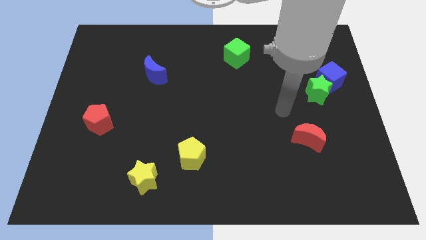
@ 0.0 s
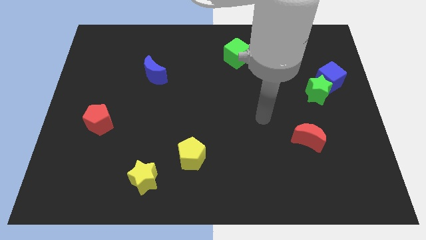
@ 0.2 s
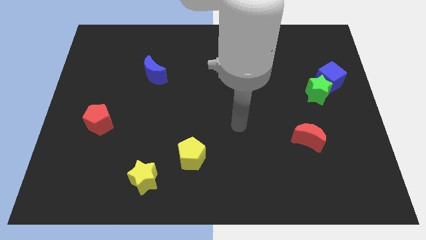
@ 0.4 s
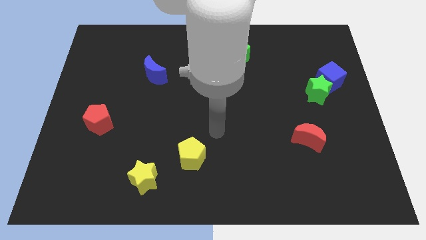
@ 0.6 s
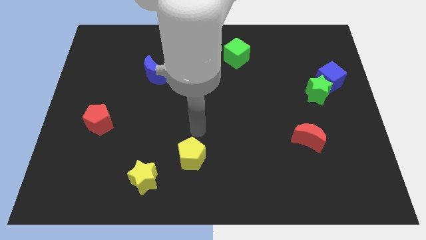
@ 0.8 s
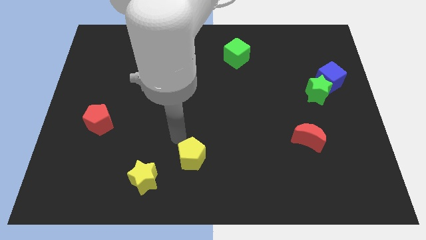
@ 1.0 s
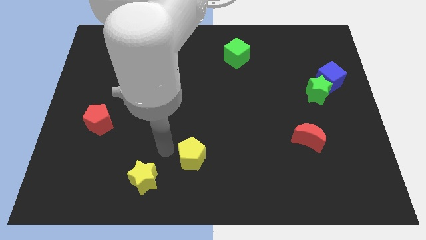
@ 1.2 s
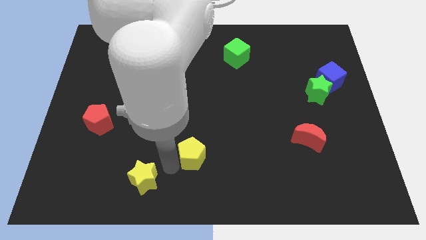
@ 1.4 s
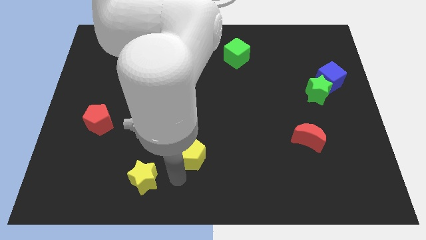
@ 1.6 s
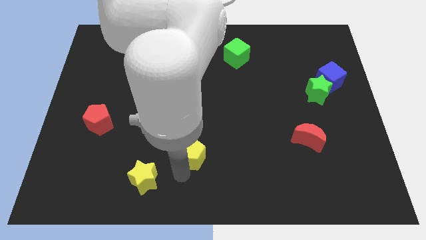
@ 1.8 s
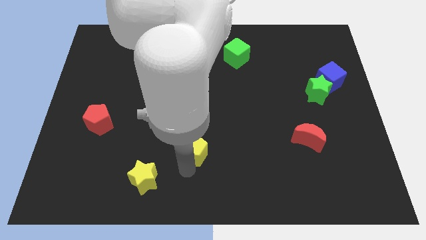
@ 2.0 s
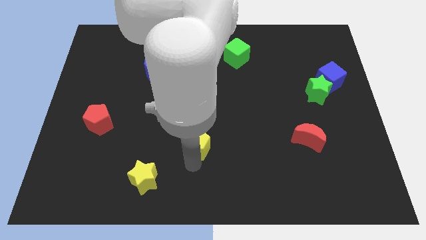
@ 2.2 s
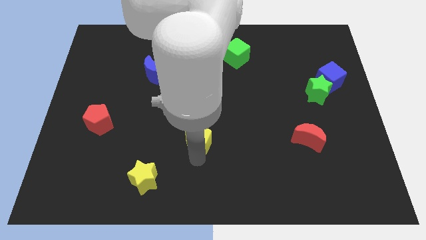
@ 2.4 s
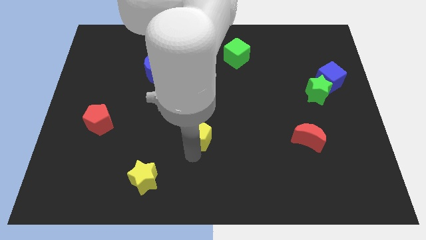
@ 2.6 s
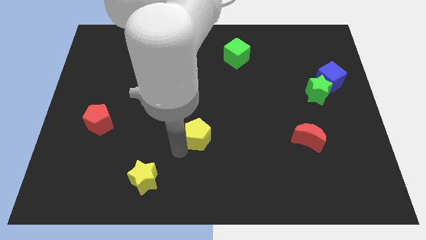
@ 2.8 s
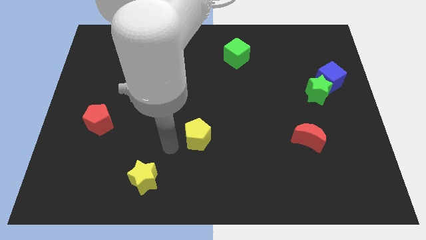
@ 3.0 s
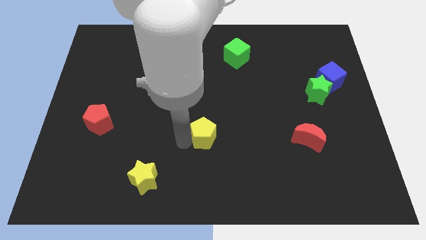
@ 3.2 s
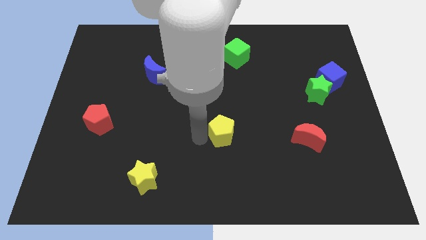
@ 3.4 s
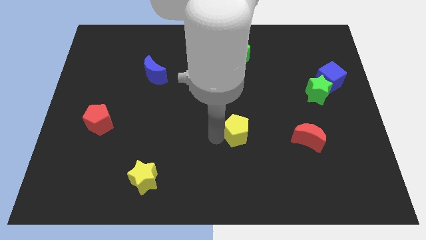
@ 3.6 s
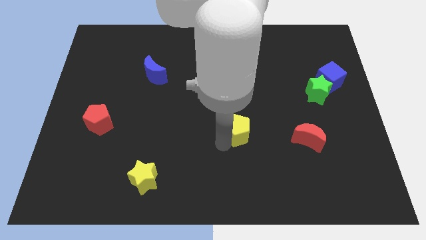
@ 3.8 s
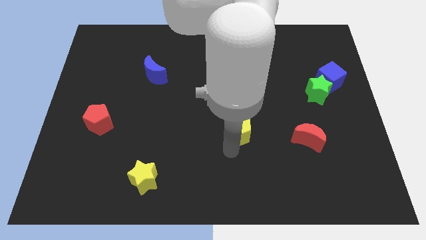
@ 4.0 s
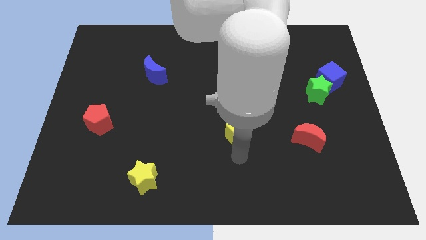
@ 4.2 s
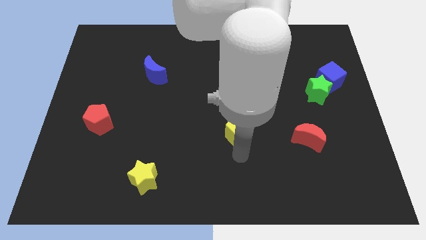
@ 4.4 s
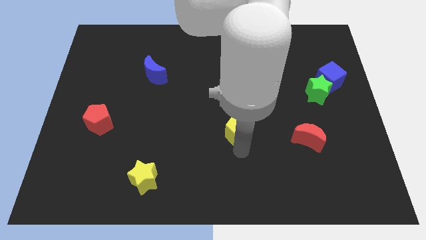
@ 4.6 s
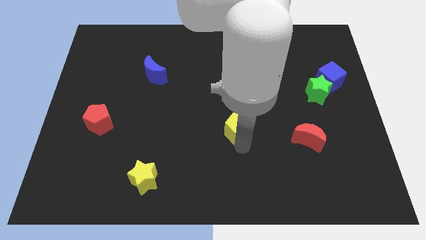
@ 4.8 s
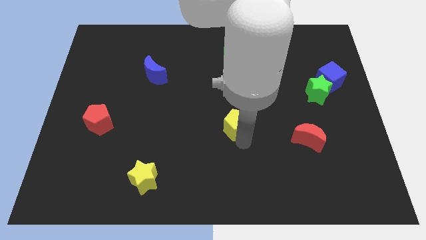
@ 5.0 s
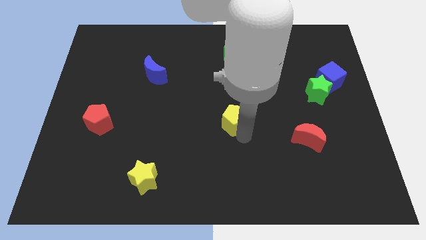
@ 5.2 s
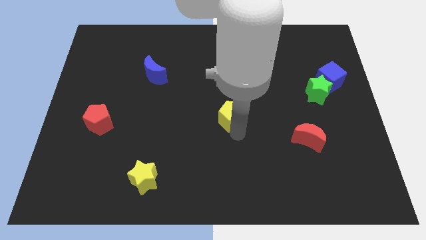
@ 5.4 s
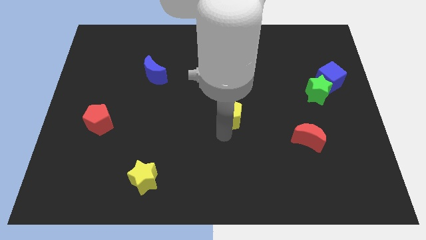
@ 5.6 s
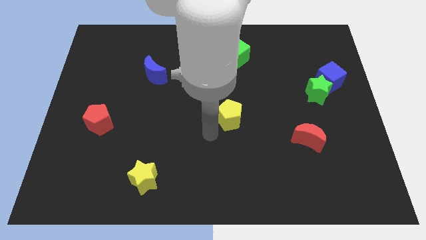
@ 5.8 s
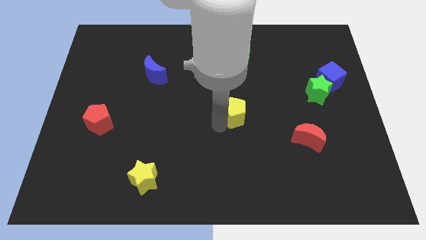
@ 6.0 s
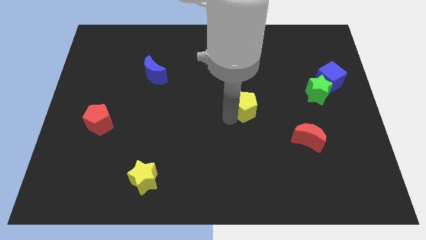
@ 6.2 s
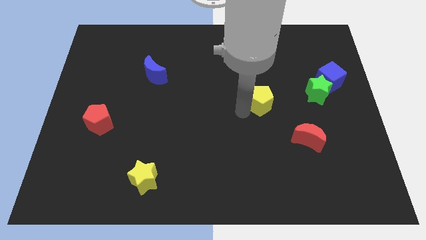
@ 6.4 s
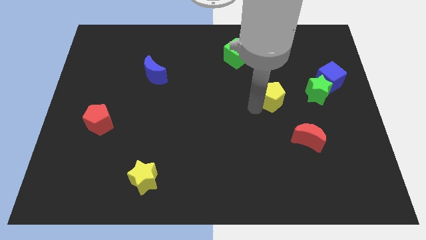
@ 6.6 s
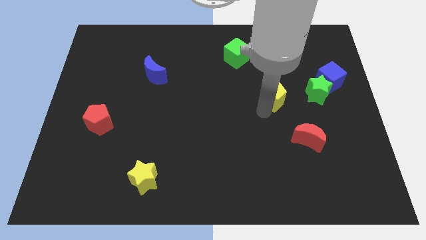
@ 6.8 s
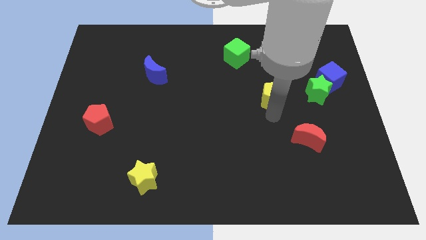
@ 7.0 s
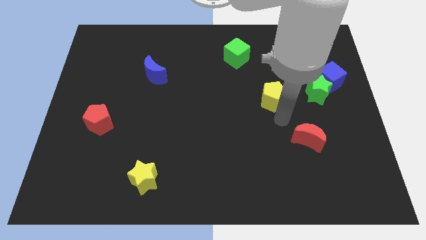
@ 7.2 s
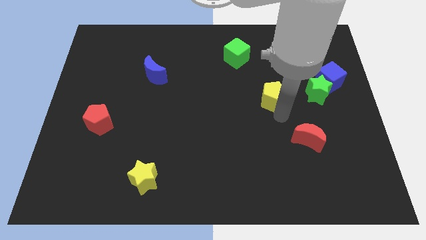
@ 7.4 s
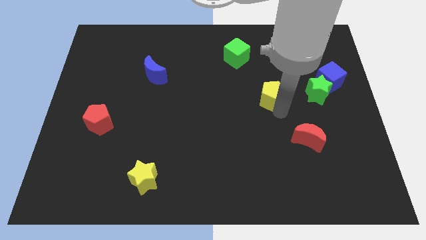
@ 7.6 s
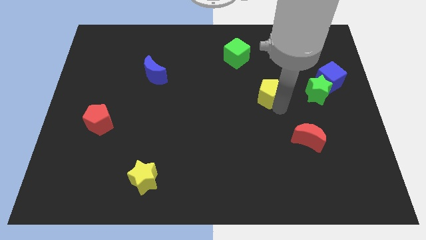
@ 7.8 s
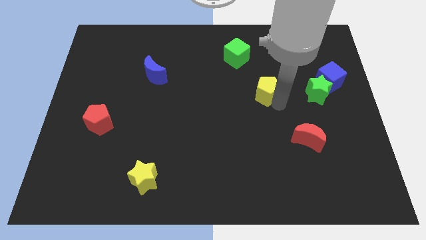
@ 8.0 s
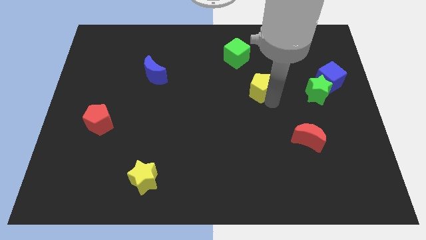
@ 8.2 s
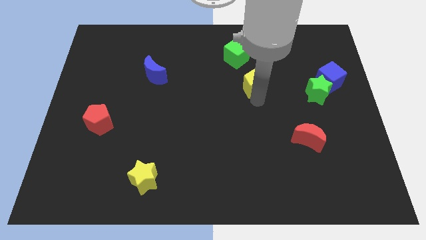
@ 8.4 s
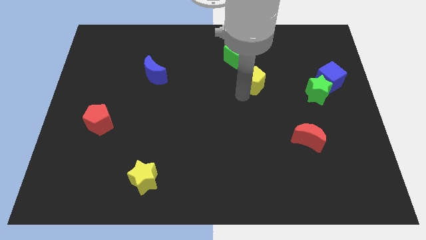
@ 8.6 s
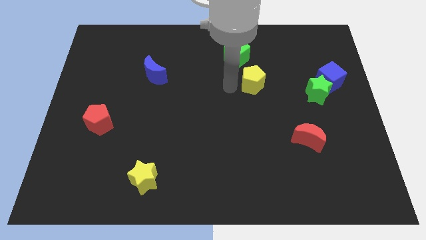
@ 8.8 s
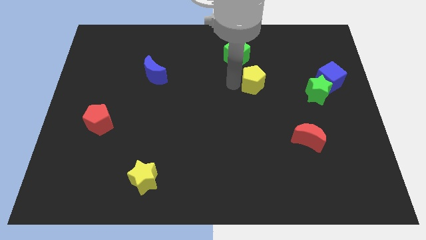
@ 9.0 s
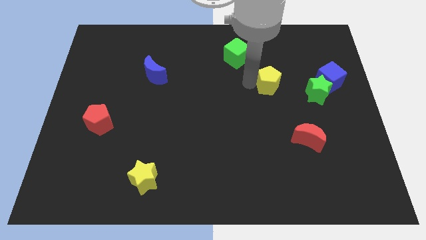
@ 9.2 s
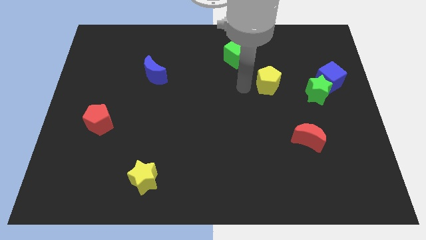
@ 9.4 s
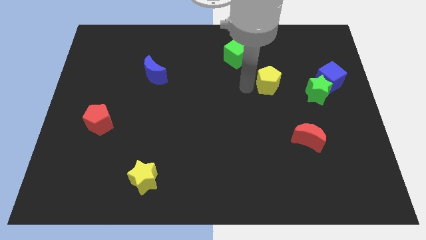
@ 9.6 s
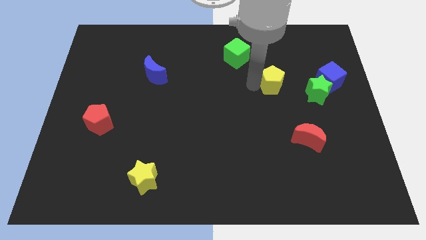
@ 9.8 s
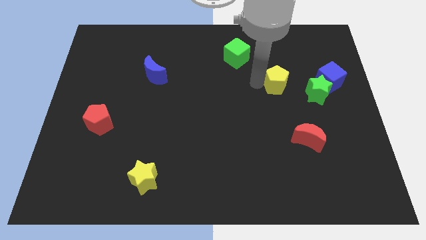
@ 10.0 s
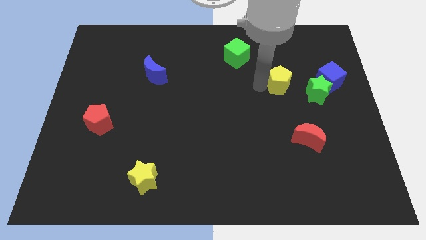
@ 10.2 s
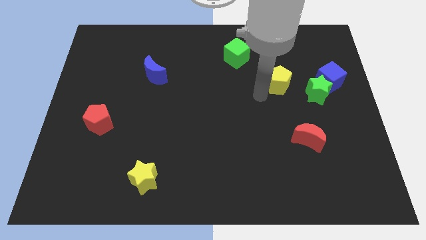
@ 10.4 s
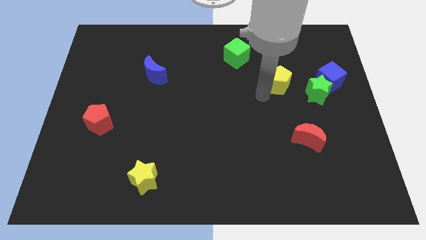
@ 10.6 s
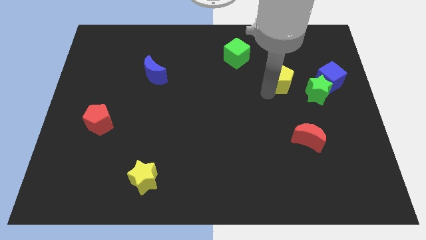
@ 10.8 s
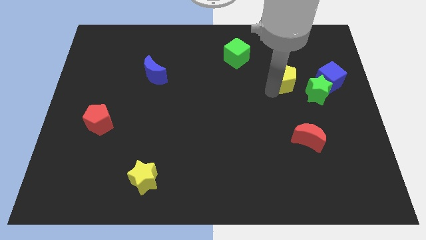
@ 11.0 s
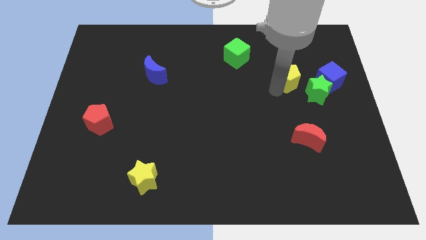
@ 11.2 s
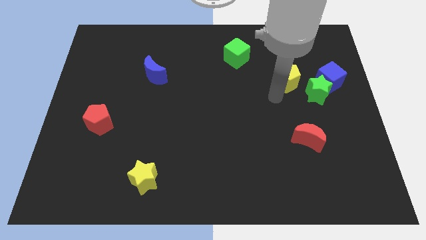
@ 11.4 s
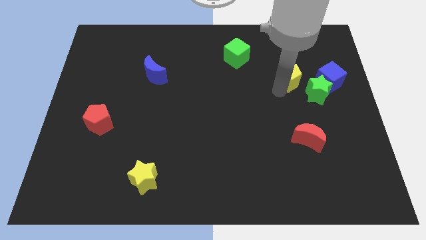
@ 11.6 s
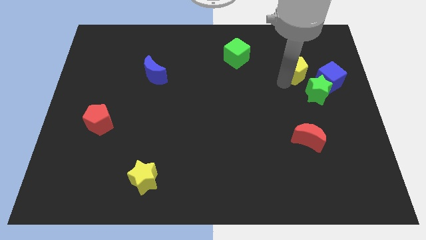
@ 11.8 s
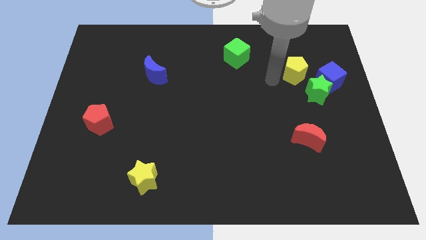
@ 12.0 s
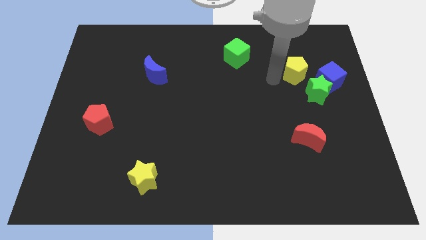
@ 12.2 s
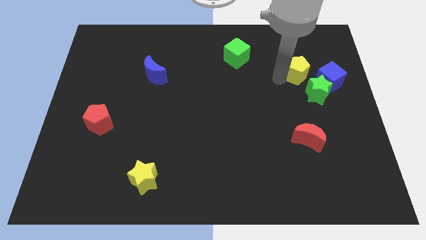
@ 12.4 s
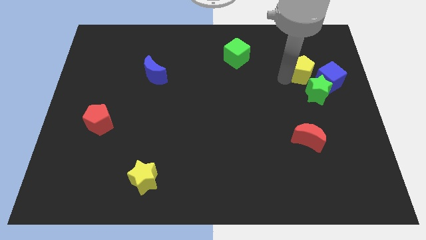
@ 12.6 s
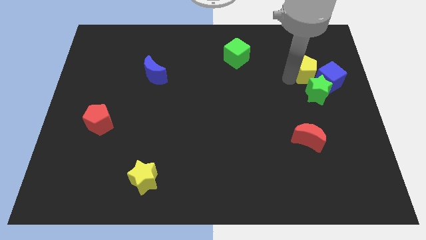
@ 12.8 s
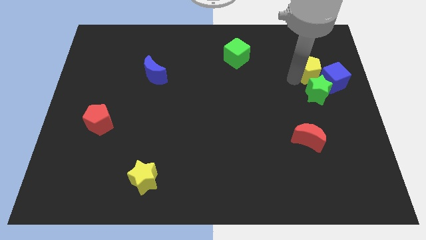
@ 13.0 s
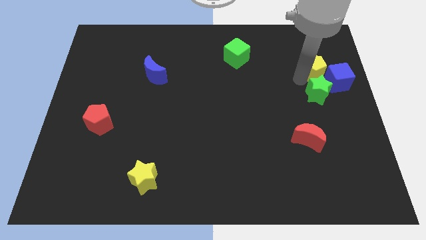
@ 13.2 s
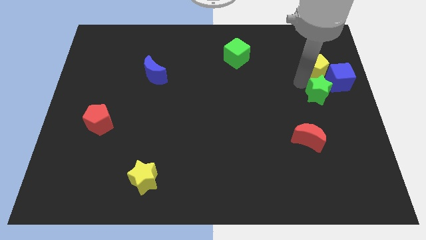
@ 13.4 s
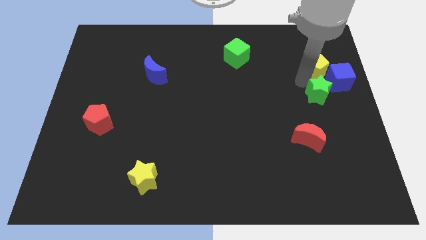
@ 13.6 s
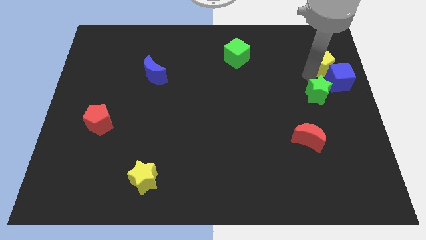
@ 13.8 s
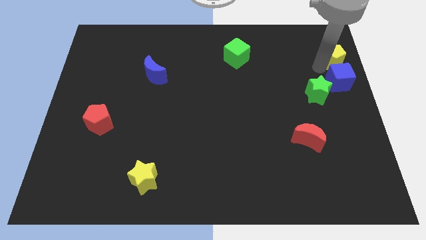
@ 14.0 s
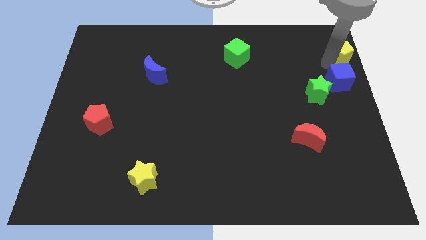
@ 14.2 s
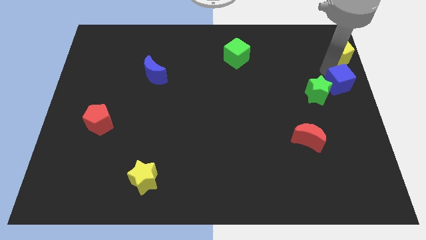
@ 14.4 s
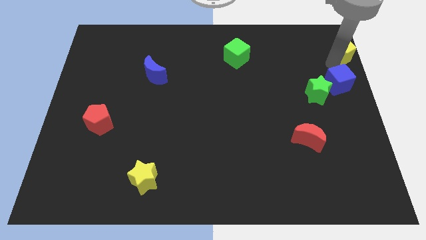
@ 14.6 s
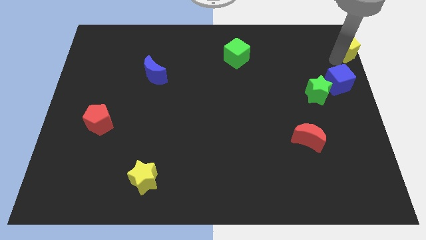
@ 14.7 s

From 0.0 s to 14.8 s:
push the yellow pentagon to the top right corner
